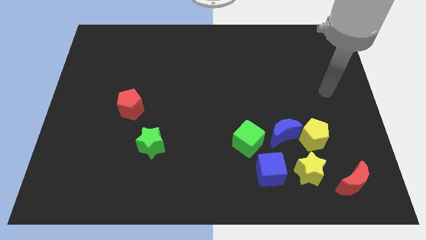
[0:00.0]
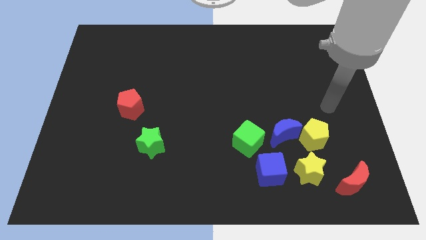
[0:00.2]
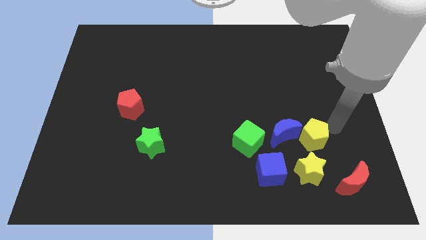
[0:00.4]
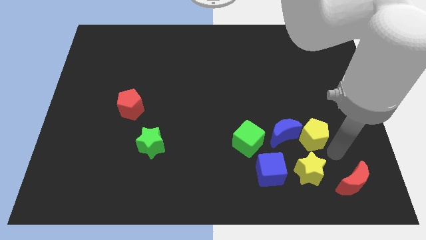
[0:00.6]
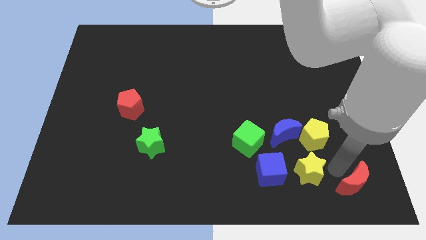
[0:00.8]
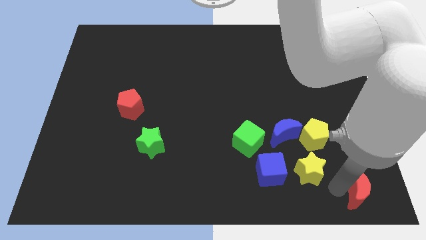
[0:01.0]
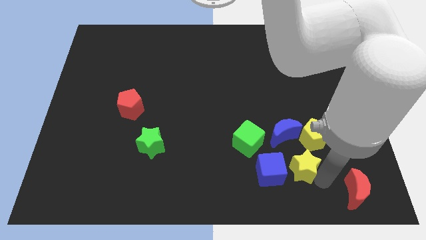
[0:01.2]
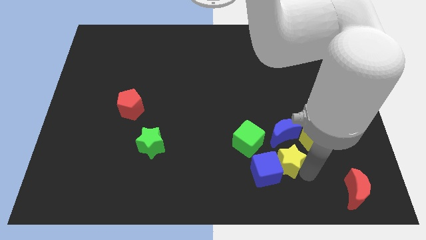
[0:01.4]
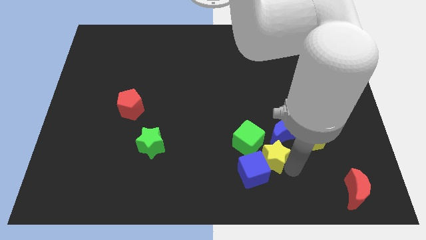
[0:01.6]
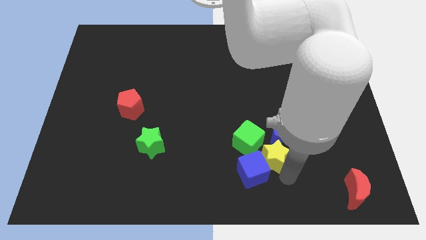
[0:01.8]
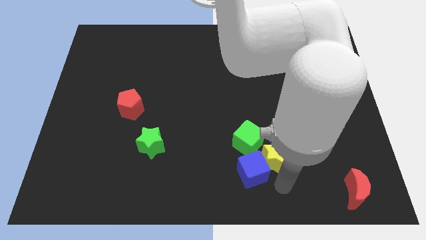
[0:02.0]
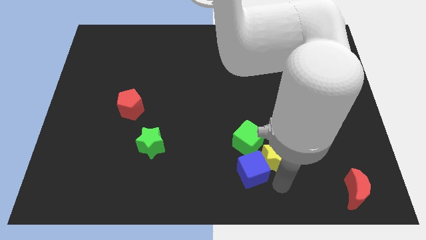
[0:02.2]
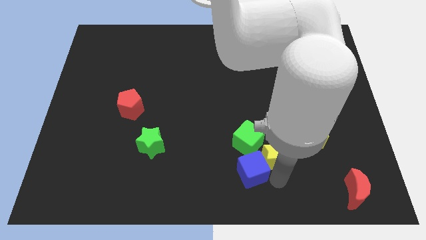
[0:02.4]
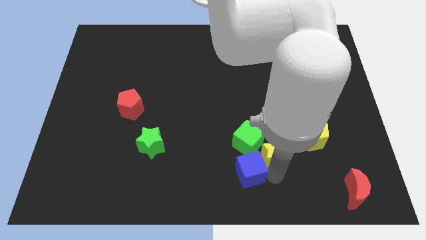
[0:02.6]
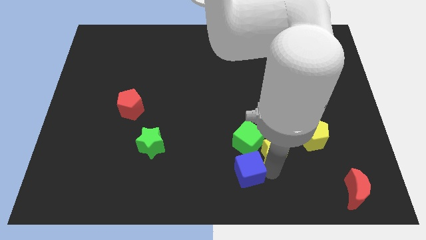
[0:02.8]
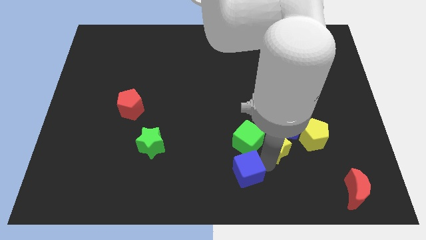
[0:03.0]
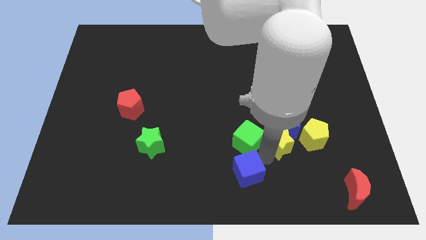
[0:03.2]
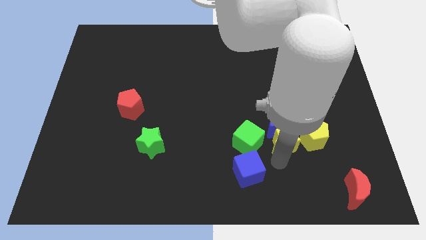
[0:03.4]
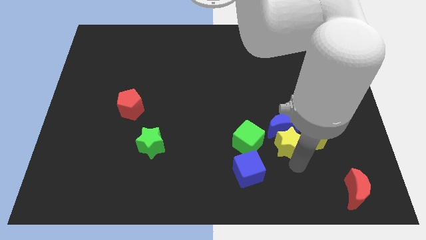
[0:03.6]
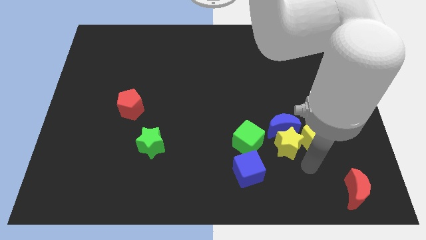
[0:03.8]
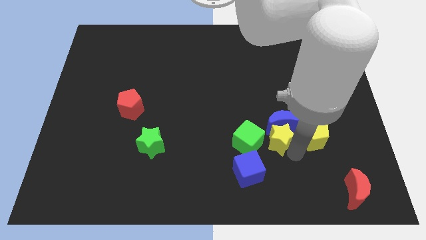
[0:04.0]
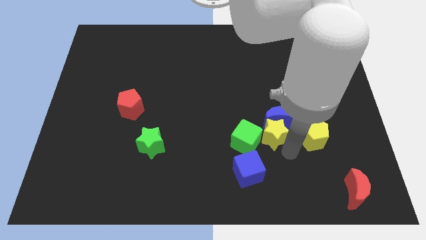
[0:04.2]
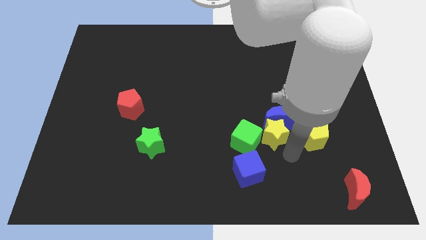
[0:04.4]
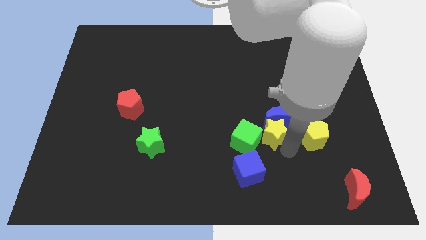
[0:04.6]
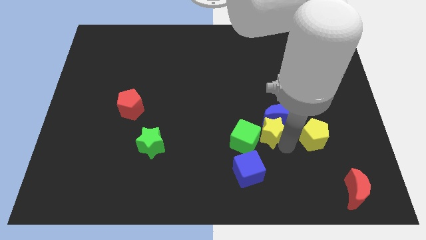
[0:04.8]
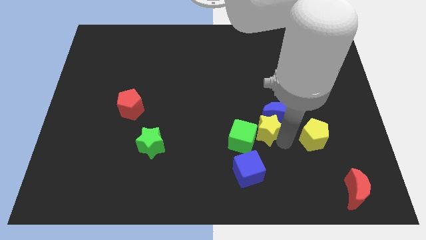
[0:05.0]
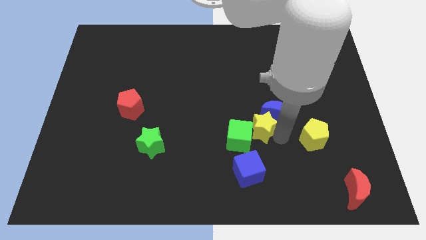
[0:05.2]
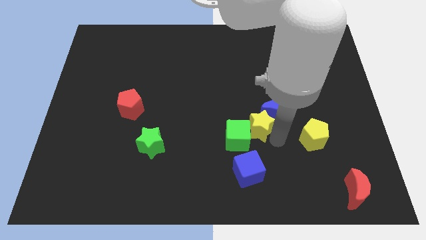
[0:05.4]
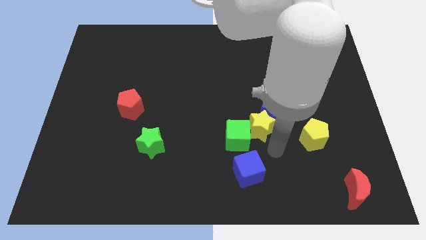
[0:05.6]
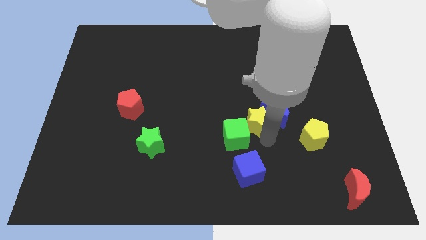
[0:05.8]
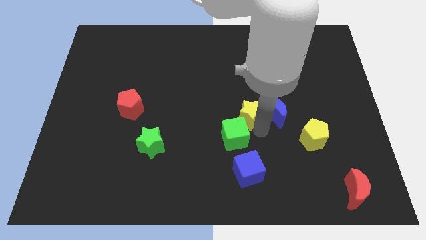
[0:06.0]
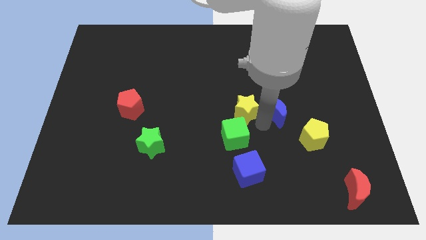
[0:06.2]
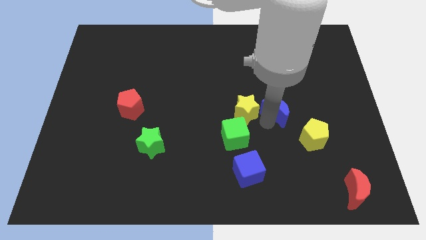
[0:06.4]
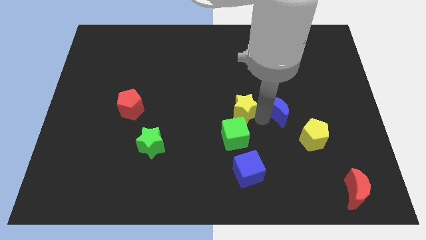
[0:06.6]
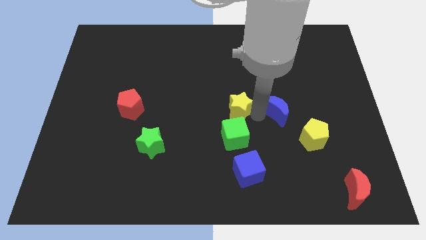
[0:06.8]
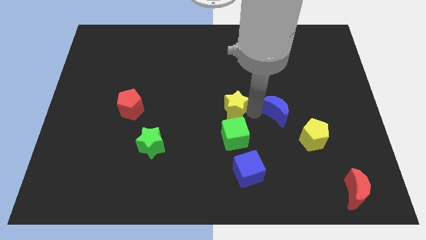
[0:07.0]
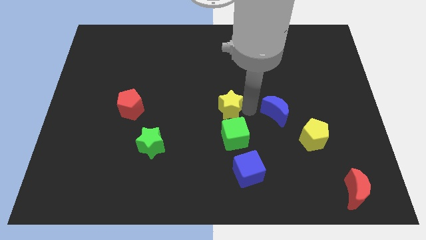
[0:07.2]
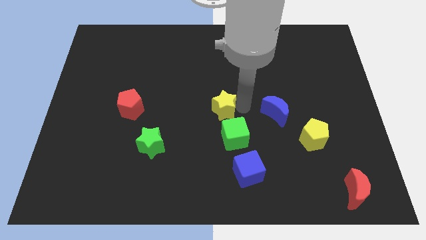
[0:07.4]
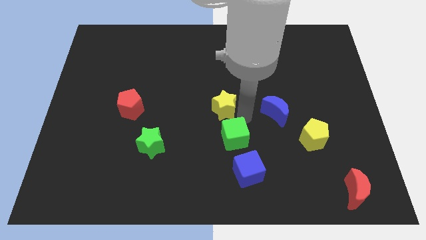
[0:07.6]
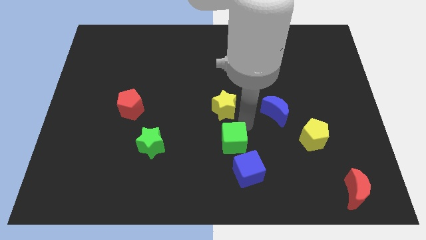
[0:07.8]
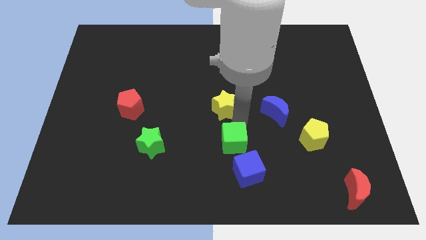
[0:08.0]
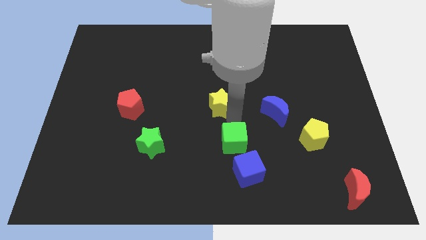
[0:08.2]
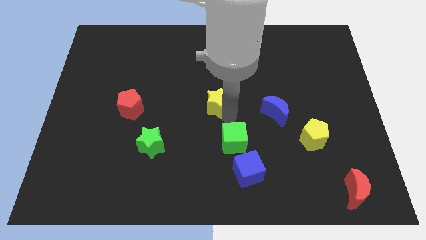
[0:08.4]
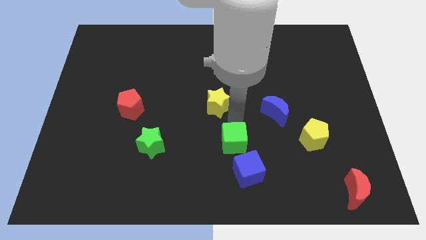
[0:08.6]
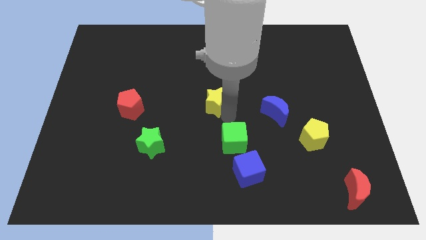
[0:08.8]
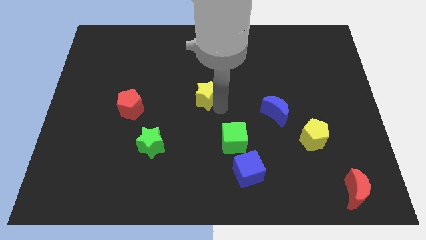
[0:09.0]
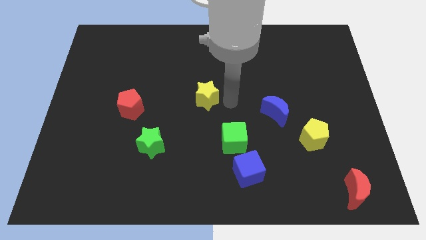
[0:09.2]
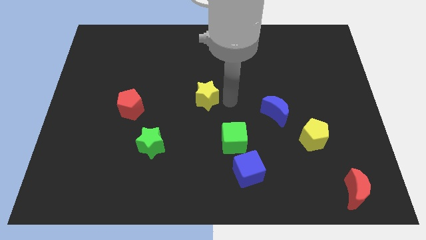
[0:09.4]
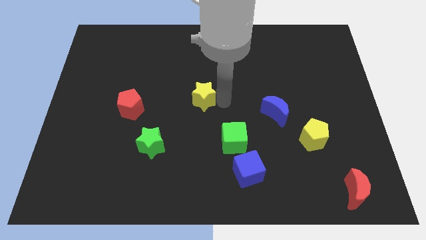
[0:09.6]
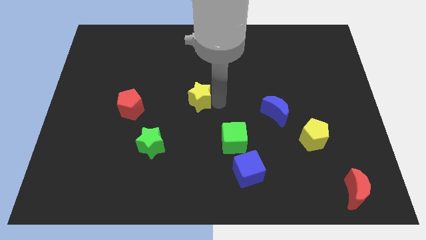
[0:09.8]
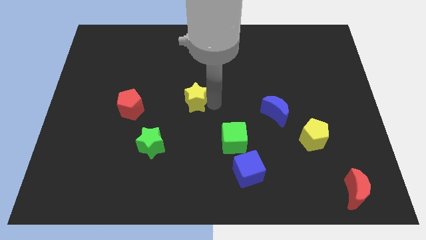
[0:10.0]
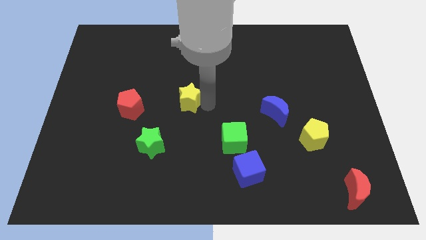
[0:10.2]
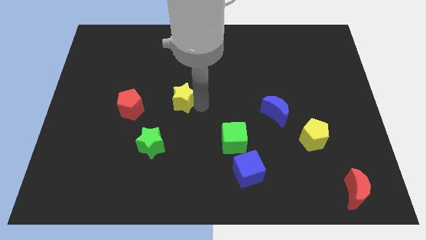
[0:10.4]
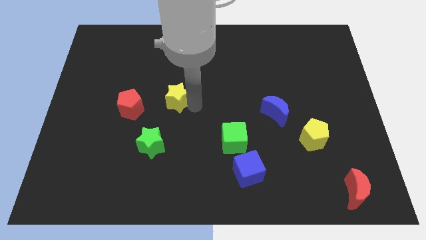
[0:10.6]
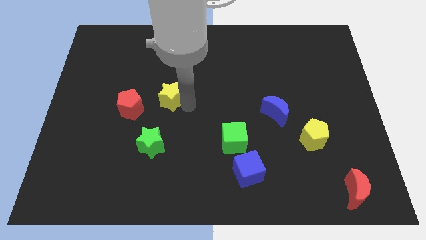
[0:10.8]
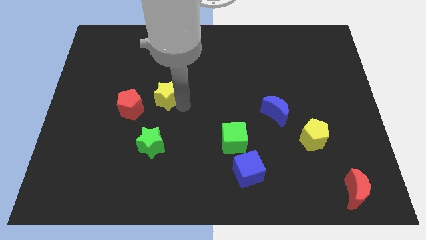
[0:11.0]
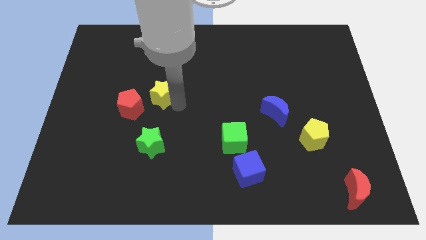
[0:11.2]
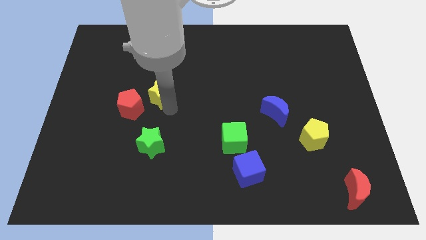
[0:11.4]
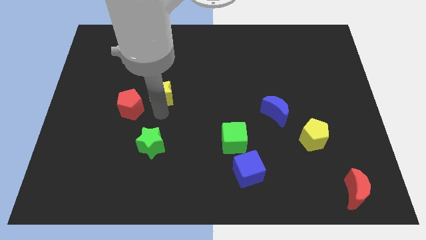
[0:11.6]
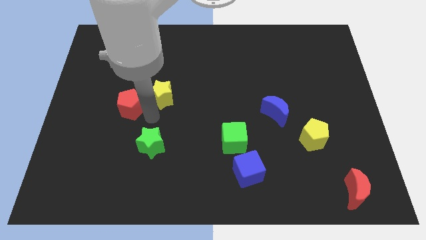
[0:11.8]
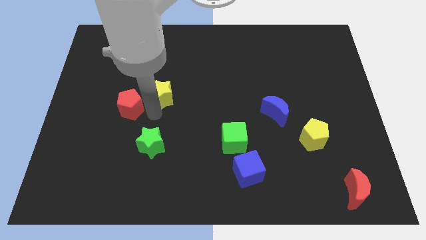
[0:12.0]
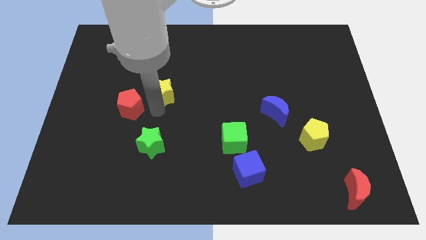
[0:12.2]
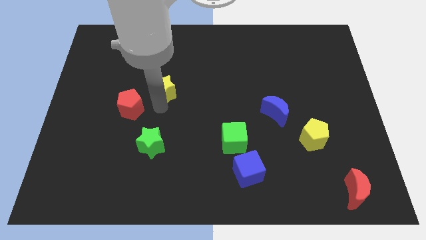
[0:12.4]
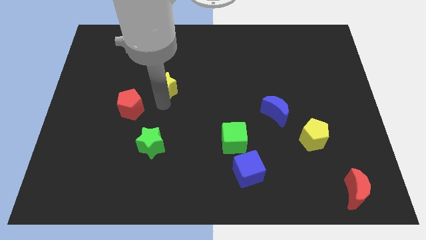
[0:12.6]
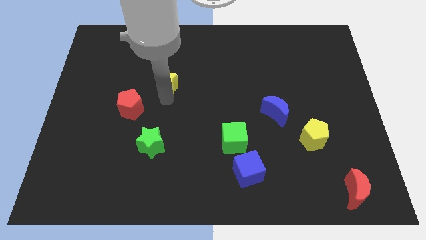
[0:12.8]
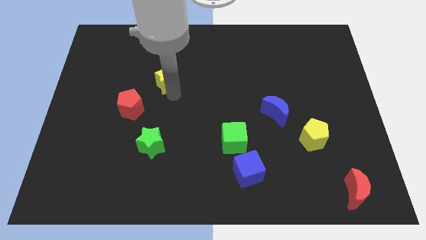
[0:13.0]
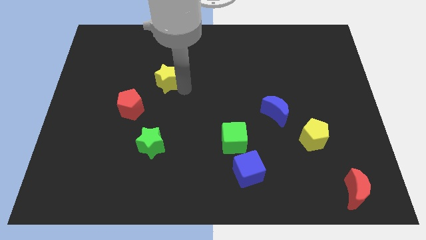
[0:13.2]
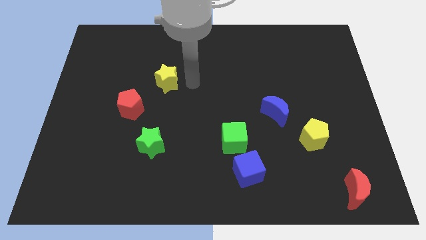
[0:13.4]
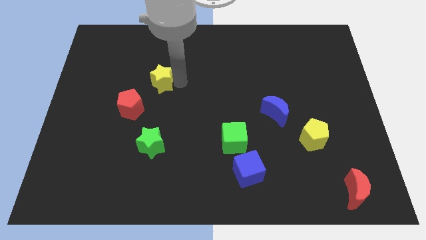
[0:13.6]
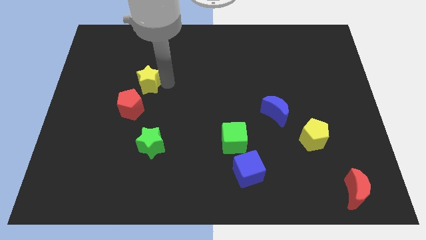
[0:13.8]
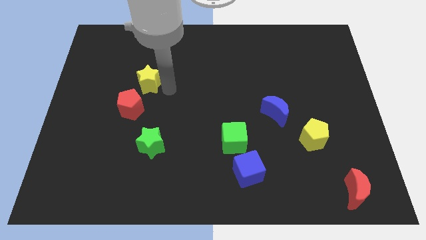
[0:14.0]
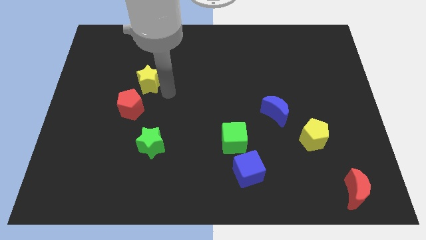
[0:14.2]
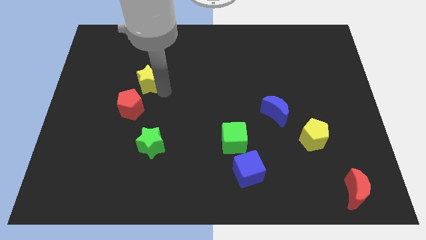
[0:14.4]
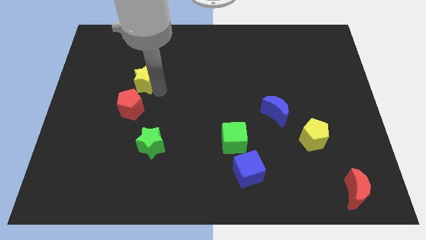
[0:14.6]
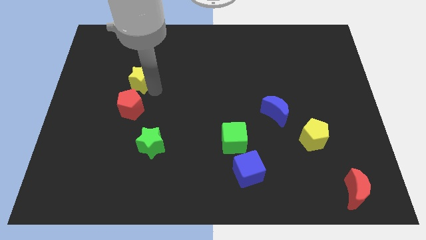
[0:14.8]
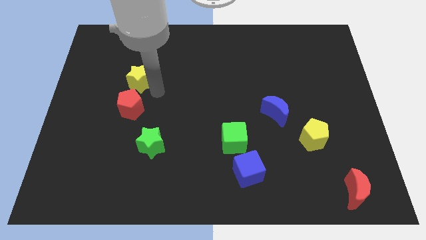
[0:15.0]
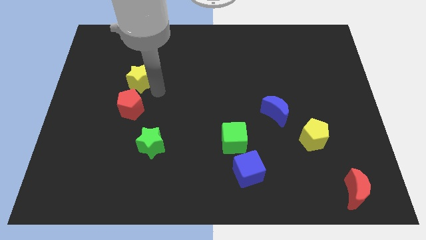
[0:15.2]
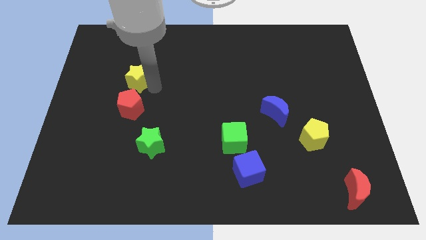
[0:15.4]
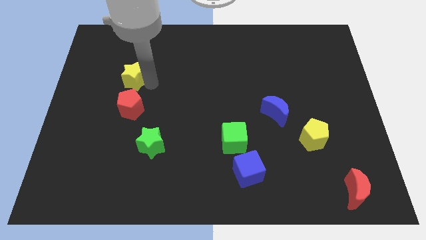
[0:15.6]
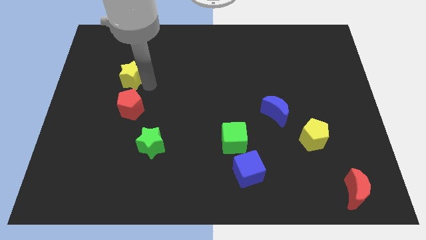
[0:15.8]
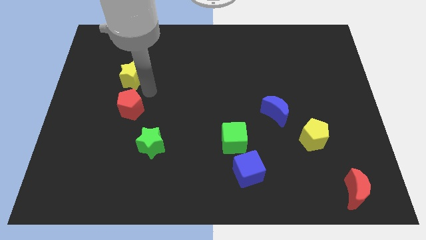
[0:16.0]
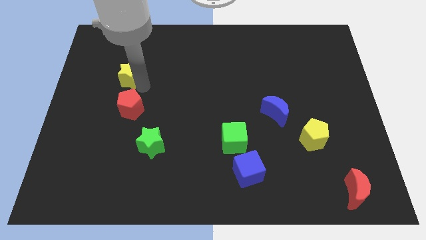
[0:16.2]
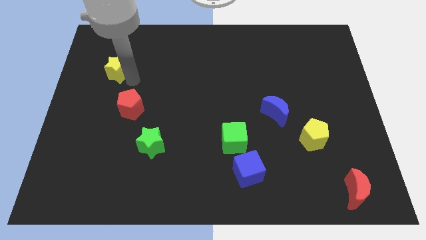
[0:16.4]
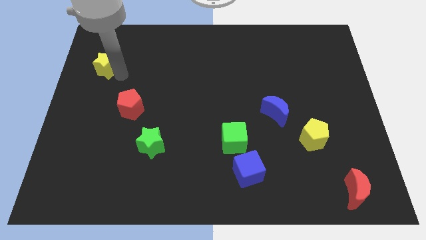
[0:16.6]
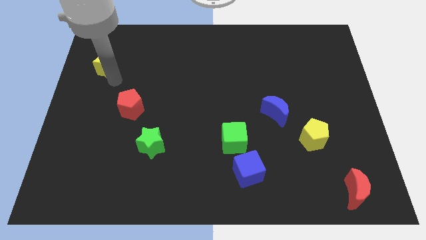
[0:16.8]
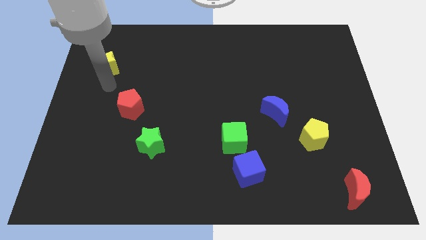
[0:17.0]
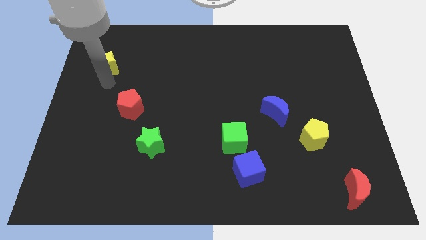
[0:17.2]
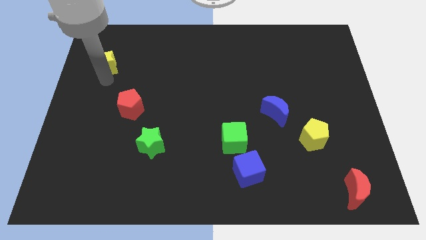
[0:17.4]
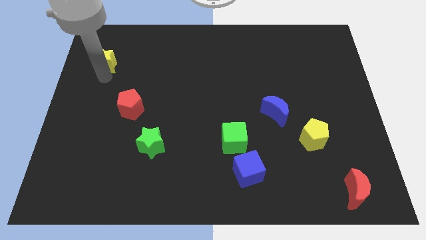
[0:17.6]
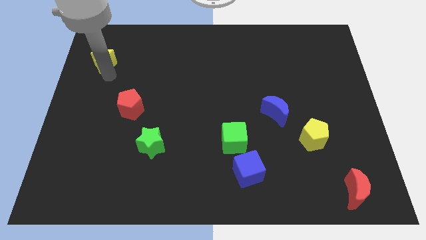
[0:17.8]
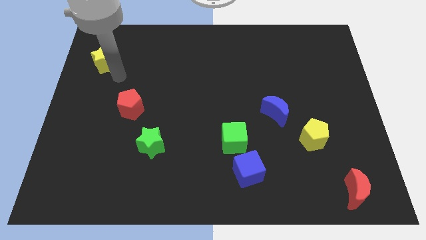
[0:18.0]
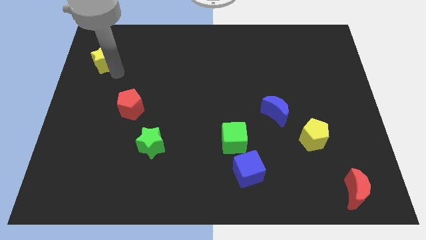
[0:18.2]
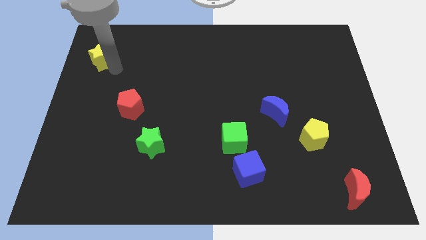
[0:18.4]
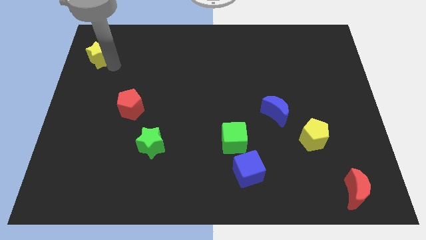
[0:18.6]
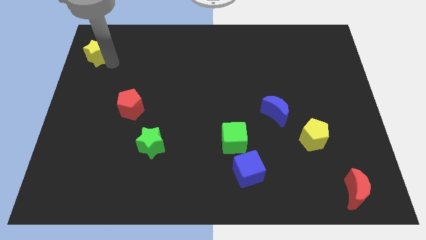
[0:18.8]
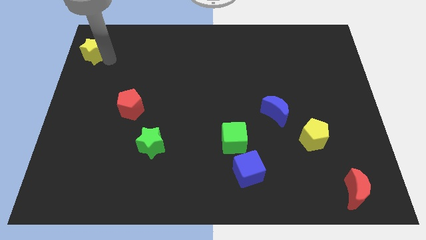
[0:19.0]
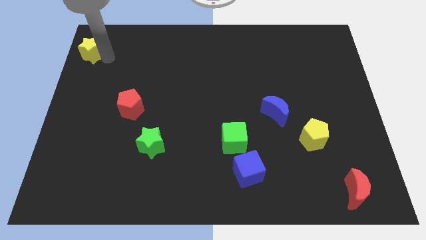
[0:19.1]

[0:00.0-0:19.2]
push the yellow star to the top left corner
